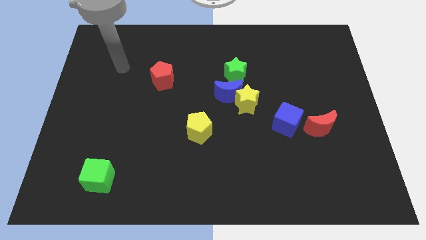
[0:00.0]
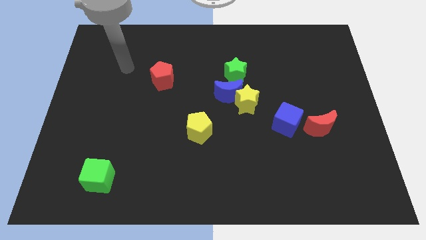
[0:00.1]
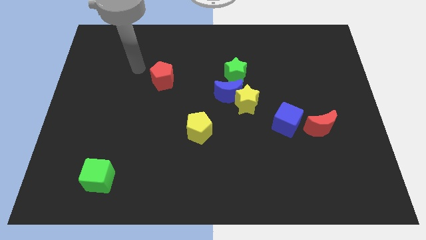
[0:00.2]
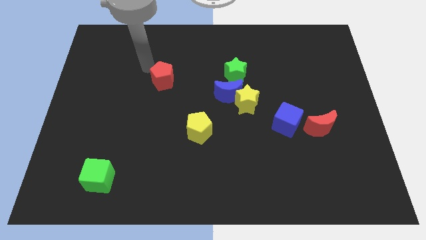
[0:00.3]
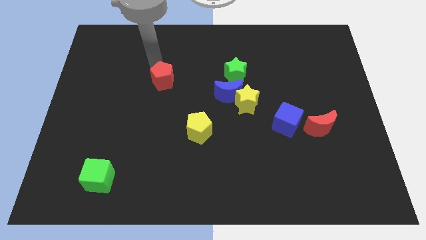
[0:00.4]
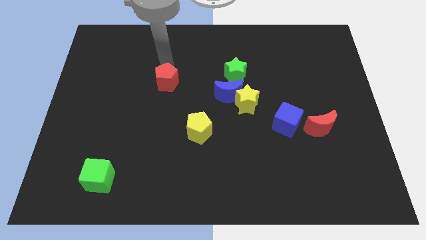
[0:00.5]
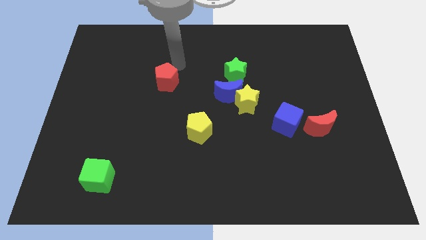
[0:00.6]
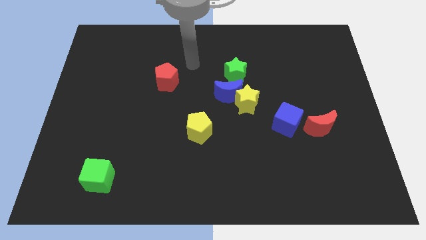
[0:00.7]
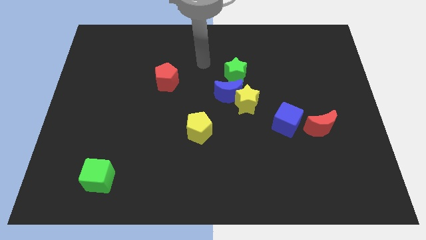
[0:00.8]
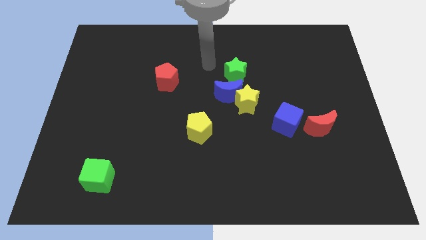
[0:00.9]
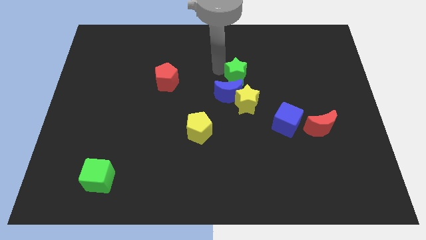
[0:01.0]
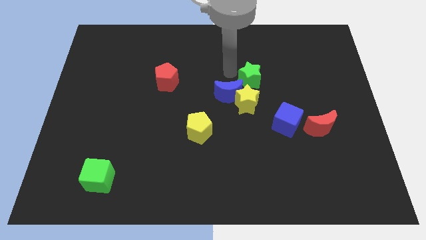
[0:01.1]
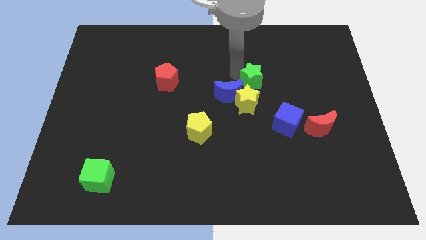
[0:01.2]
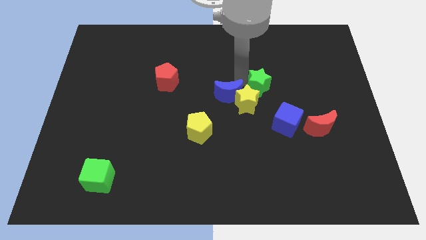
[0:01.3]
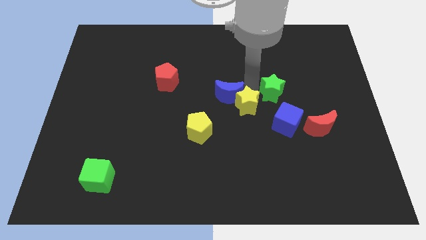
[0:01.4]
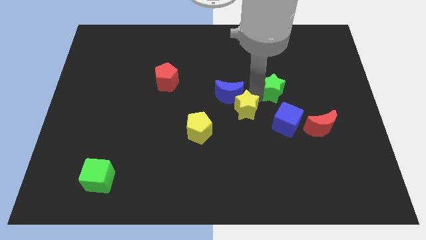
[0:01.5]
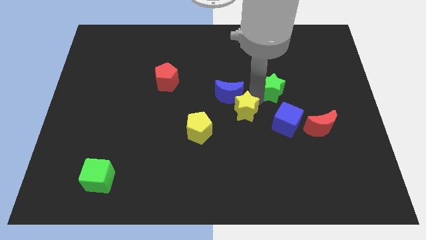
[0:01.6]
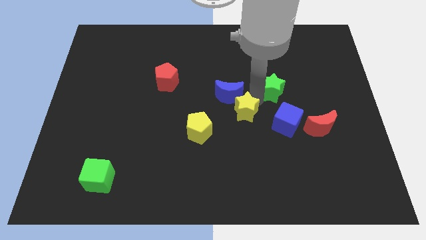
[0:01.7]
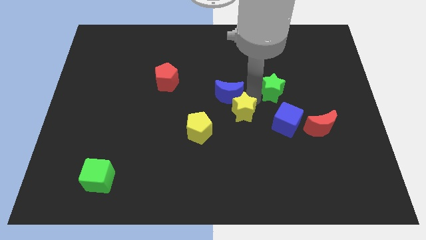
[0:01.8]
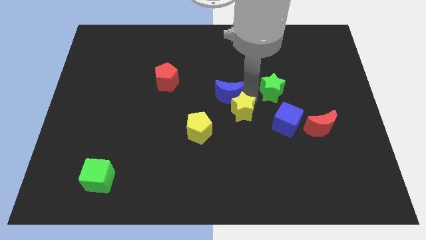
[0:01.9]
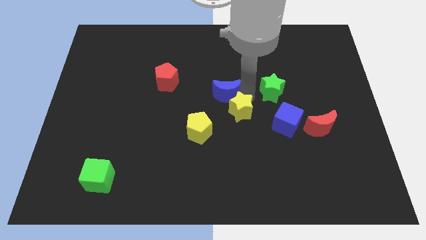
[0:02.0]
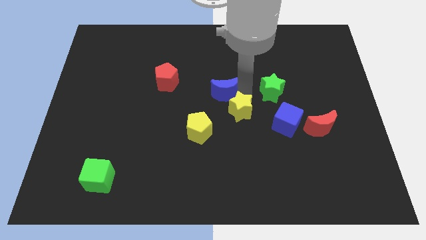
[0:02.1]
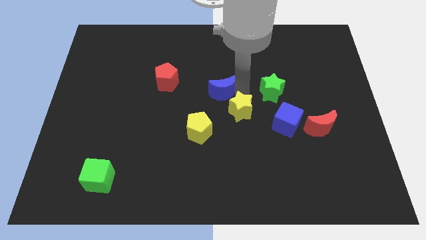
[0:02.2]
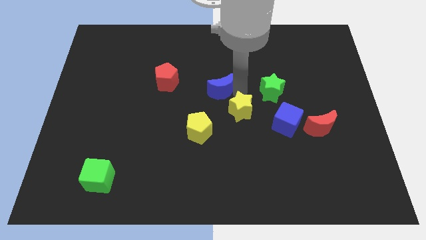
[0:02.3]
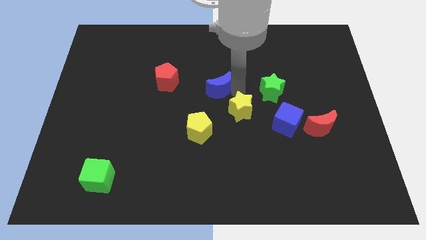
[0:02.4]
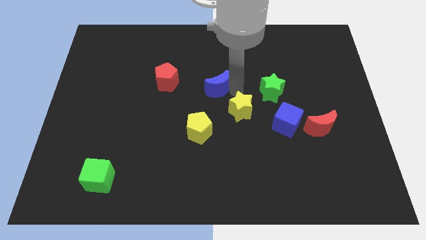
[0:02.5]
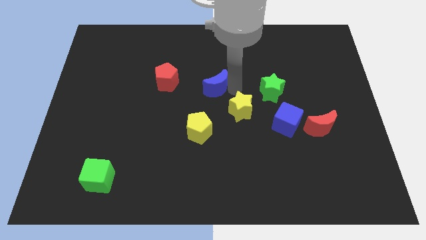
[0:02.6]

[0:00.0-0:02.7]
move the blue moon away from the yellow star and green star

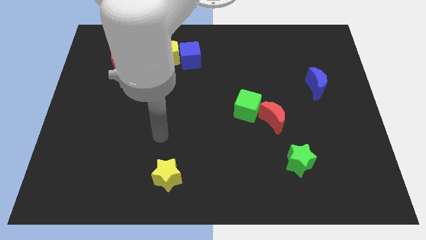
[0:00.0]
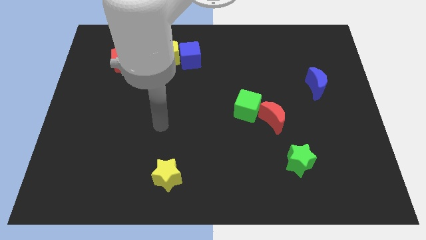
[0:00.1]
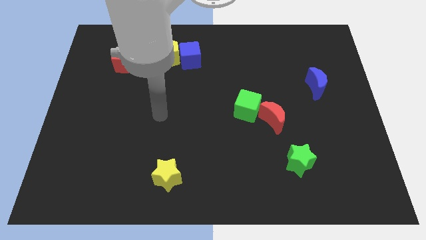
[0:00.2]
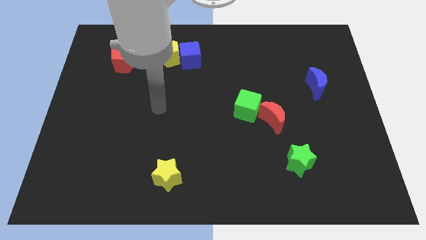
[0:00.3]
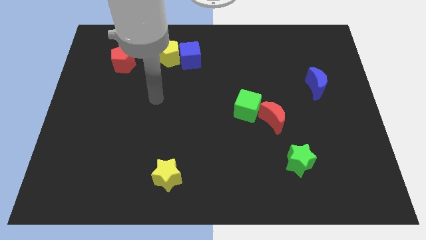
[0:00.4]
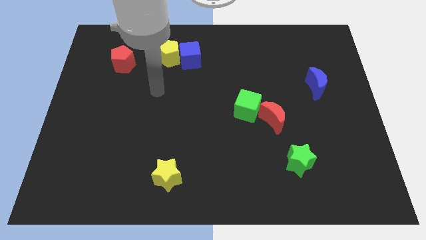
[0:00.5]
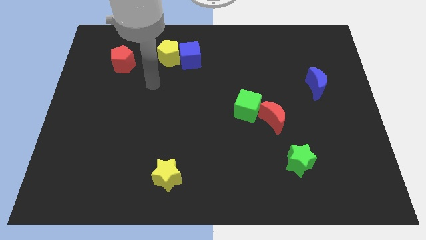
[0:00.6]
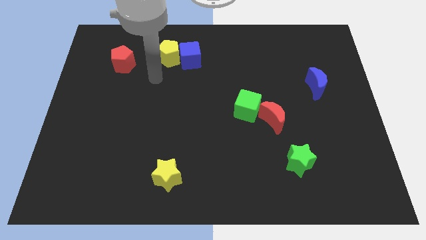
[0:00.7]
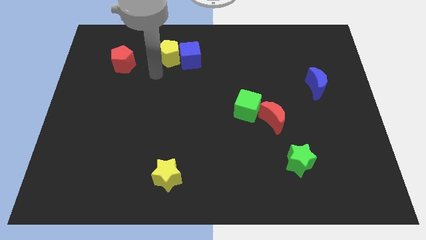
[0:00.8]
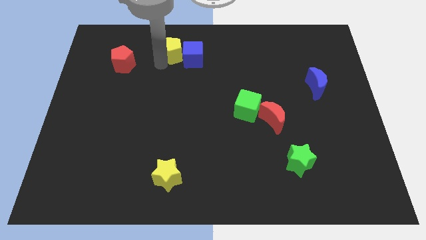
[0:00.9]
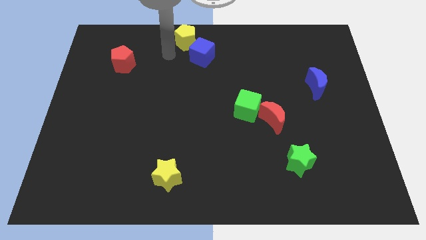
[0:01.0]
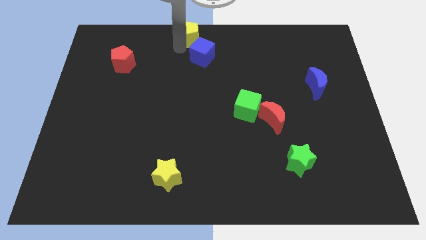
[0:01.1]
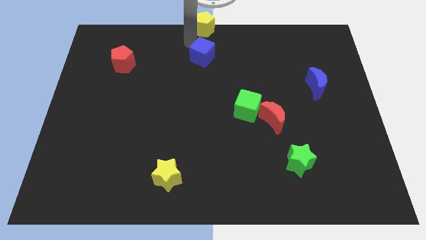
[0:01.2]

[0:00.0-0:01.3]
pull the blue cube apart from the yellow pentagon

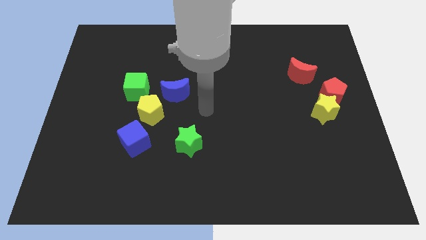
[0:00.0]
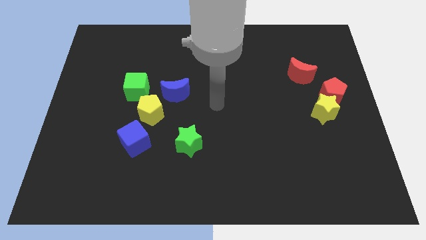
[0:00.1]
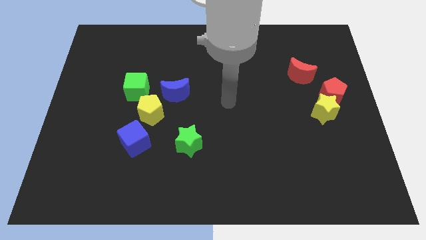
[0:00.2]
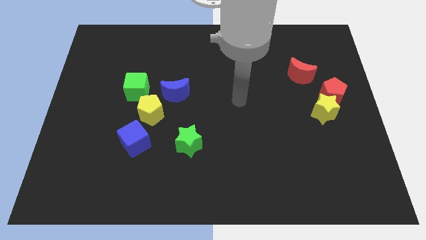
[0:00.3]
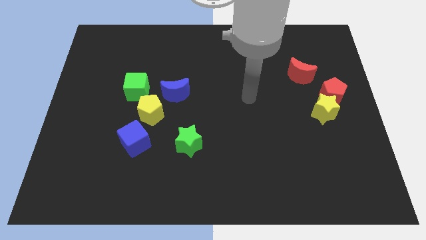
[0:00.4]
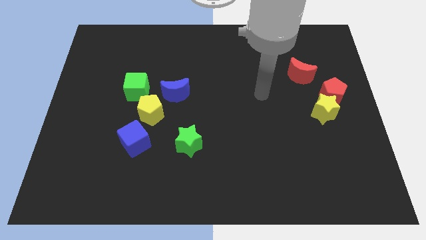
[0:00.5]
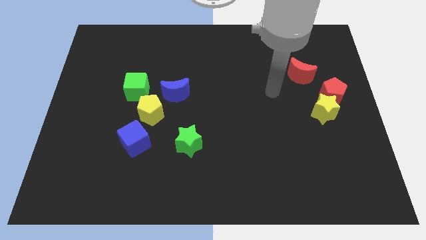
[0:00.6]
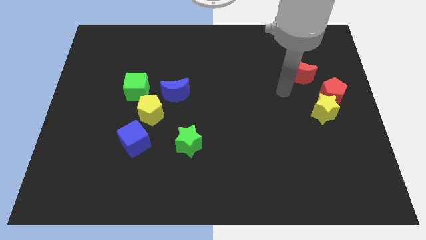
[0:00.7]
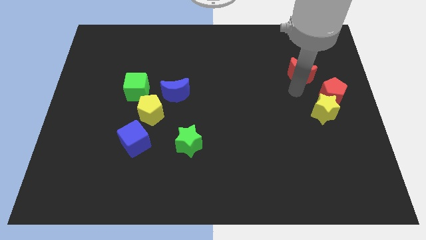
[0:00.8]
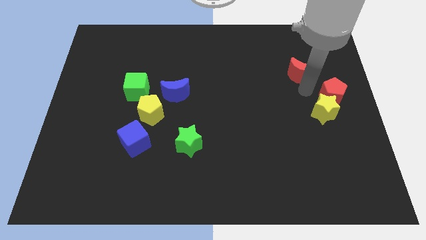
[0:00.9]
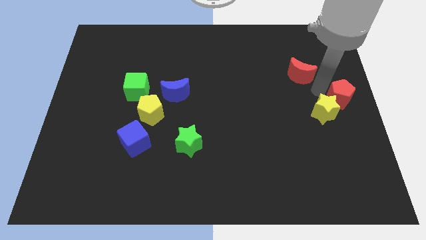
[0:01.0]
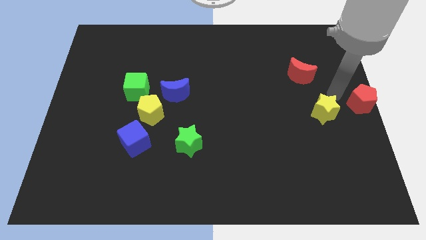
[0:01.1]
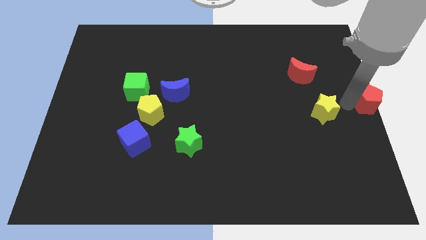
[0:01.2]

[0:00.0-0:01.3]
move the yellow star away from the red pentagon

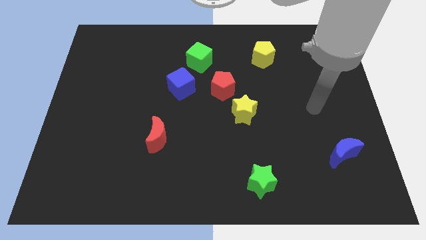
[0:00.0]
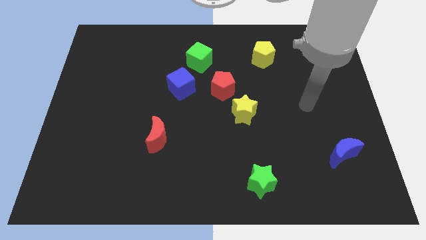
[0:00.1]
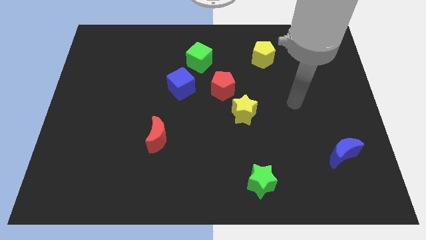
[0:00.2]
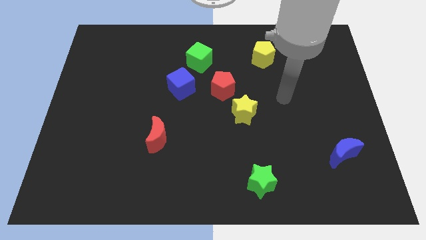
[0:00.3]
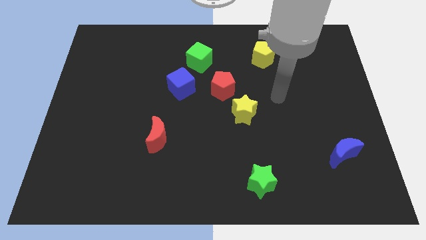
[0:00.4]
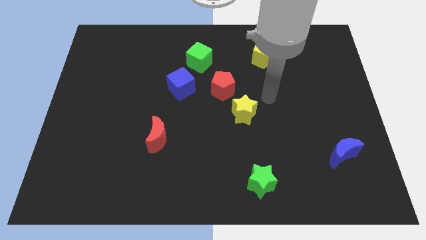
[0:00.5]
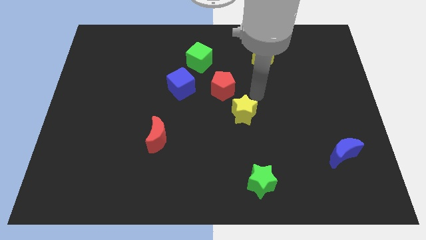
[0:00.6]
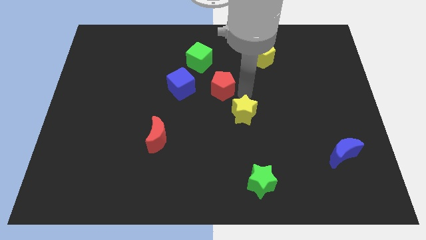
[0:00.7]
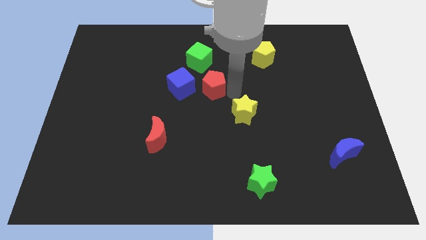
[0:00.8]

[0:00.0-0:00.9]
separate the yellow star from the red pentagon

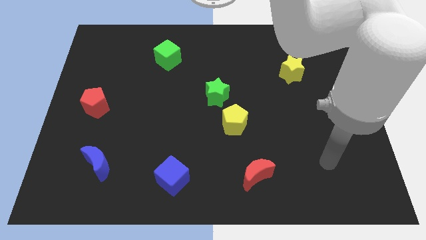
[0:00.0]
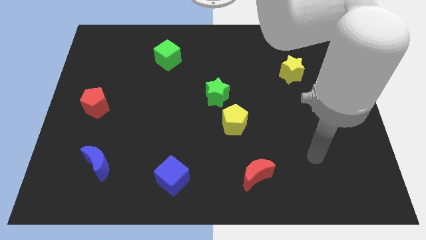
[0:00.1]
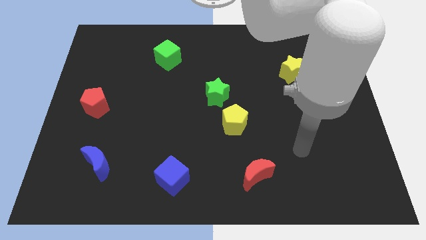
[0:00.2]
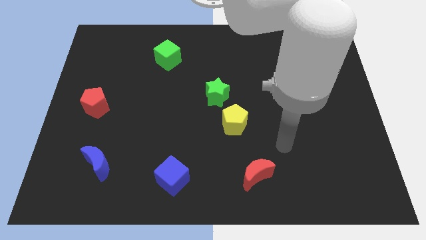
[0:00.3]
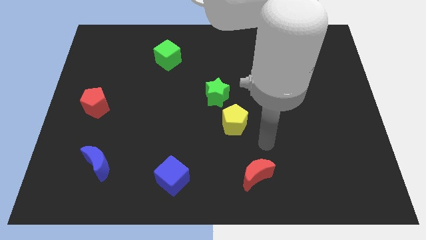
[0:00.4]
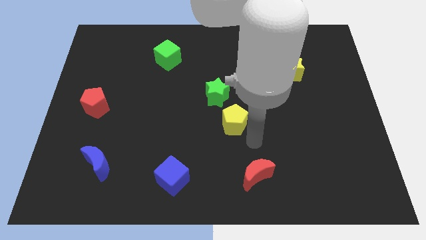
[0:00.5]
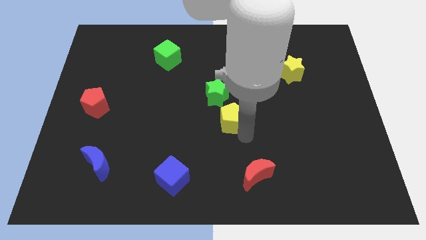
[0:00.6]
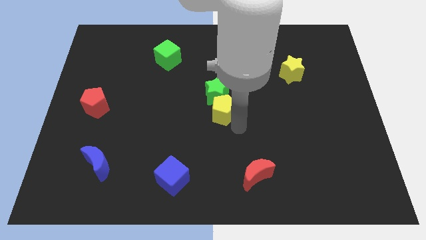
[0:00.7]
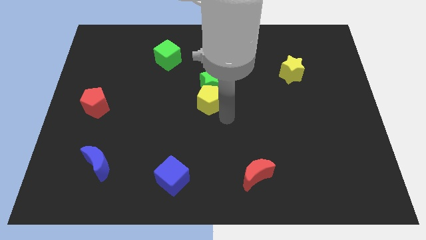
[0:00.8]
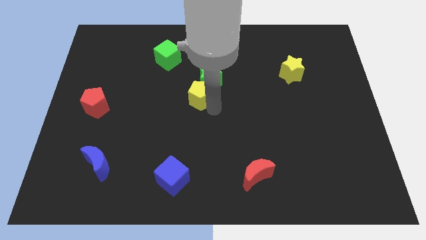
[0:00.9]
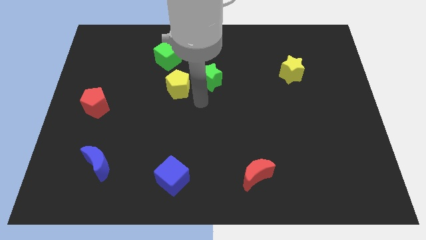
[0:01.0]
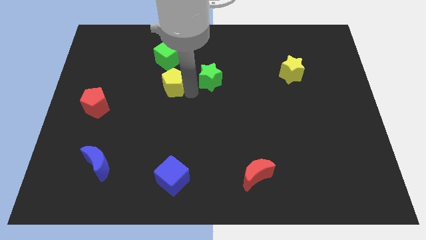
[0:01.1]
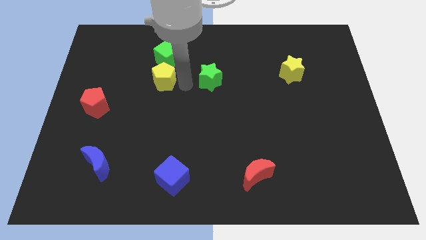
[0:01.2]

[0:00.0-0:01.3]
move the green star away from the yellow pentagon

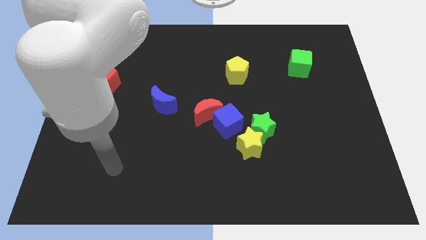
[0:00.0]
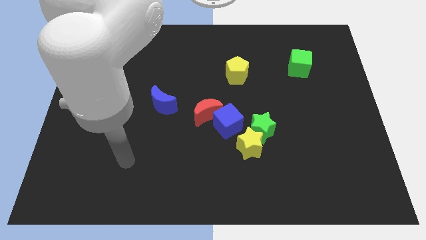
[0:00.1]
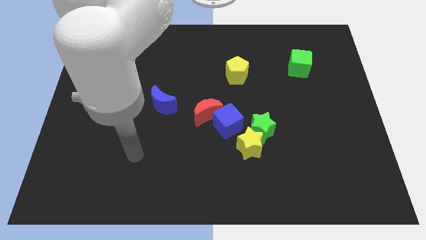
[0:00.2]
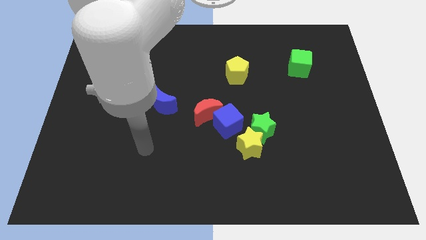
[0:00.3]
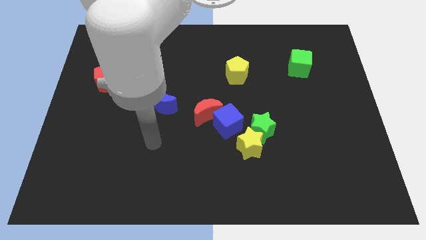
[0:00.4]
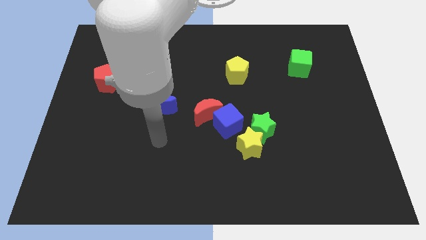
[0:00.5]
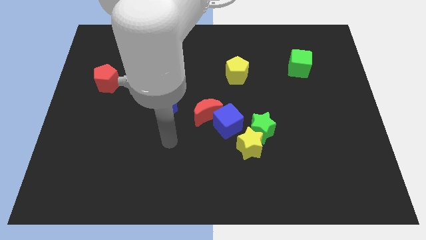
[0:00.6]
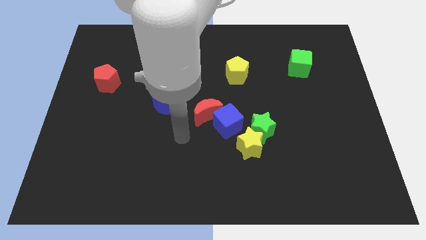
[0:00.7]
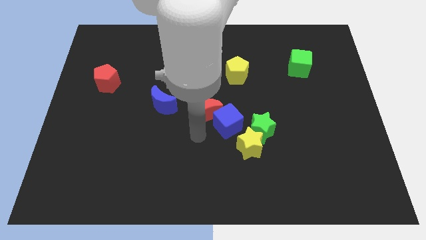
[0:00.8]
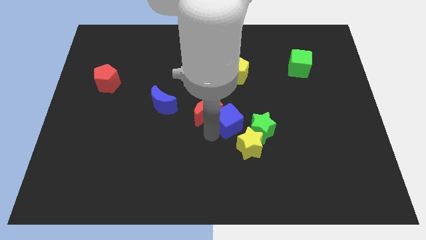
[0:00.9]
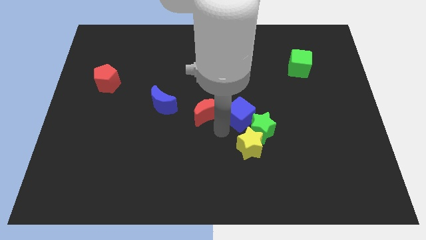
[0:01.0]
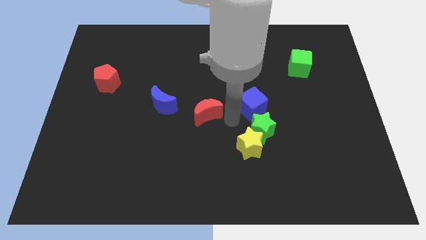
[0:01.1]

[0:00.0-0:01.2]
separate the red moon from the blue cube

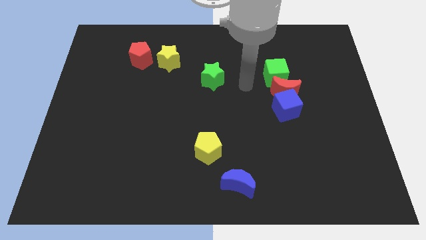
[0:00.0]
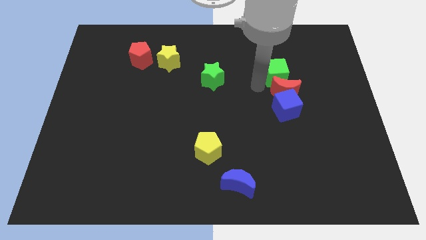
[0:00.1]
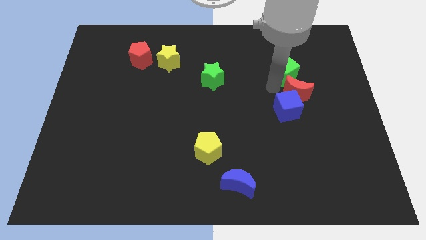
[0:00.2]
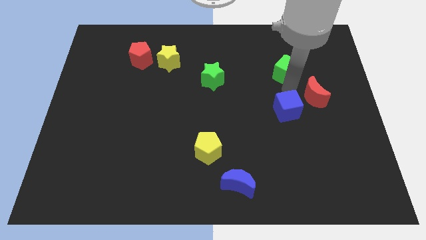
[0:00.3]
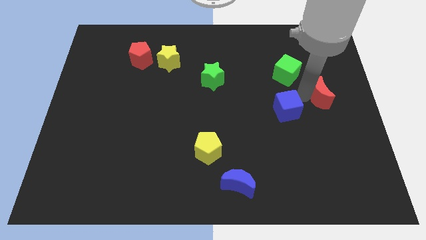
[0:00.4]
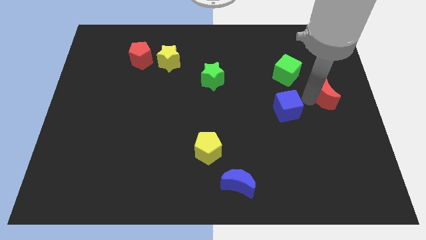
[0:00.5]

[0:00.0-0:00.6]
separate the blue cube from the red moon
